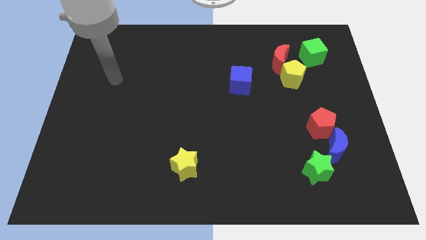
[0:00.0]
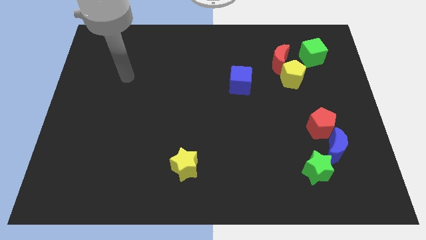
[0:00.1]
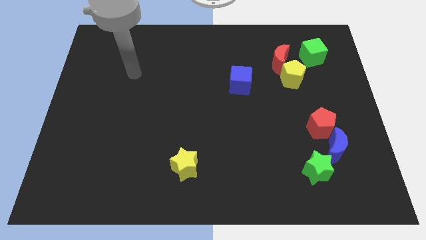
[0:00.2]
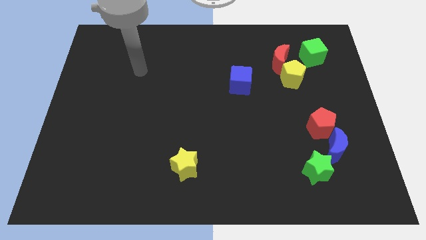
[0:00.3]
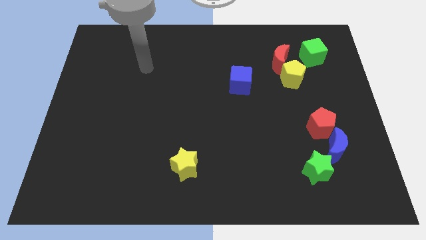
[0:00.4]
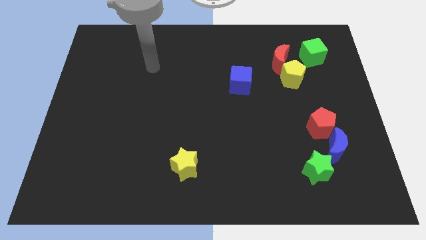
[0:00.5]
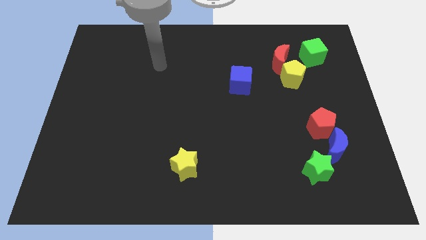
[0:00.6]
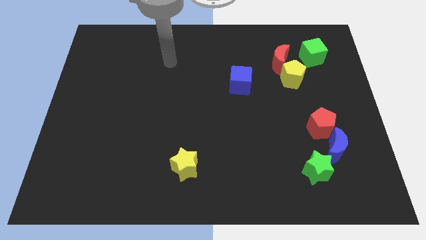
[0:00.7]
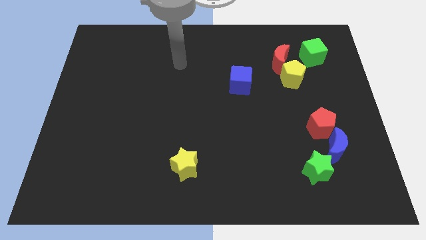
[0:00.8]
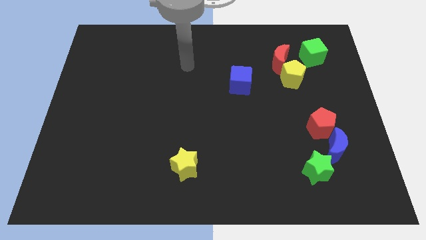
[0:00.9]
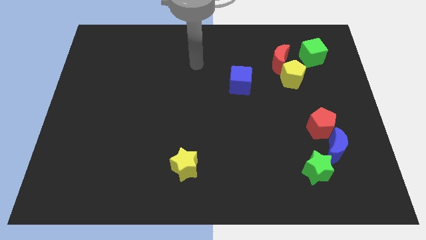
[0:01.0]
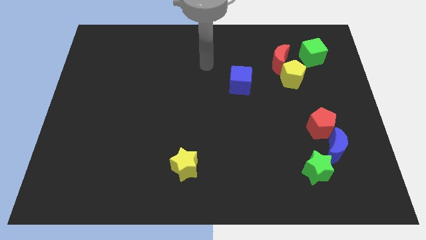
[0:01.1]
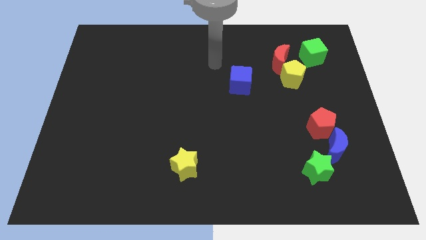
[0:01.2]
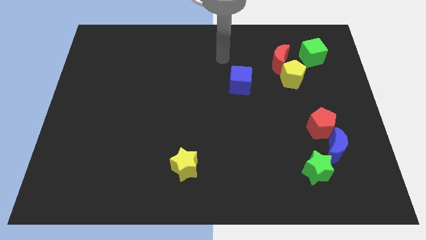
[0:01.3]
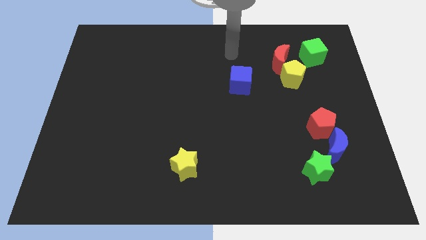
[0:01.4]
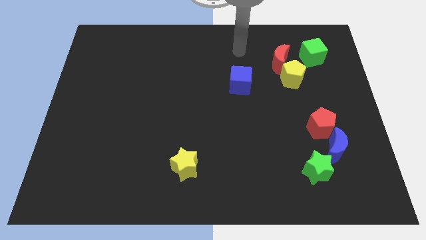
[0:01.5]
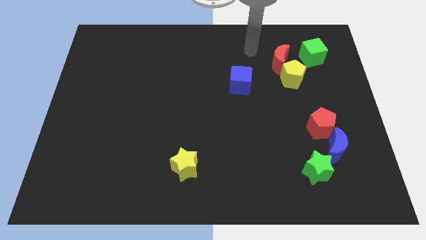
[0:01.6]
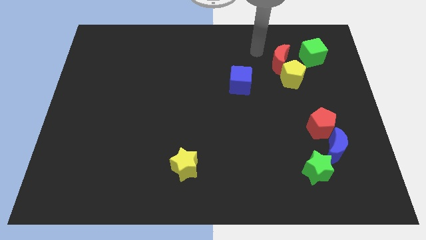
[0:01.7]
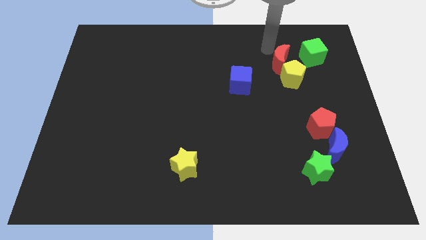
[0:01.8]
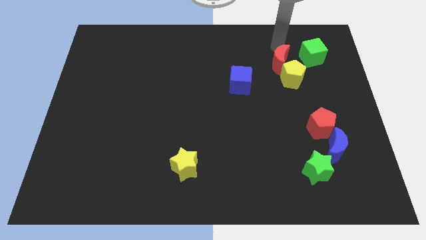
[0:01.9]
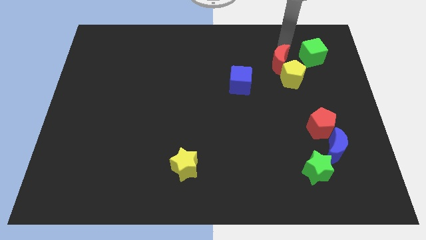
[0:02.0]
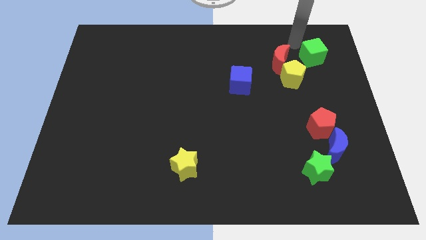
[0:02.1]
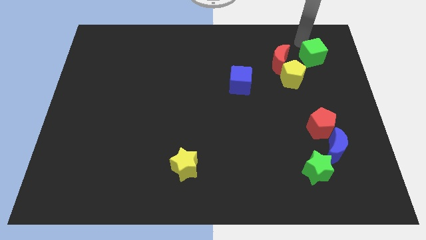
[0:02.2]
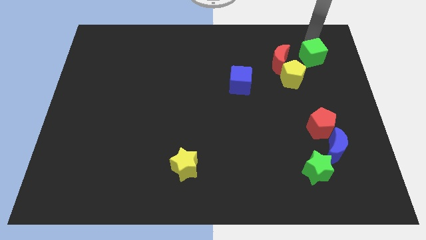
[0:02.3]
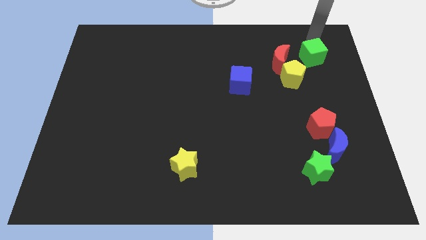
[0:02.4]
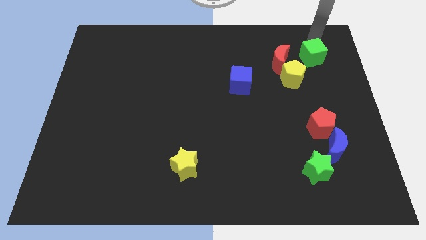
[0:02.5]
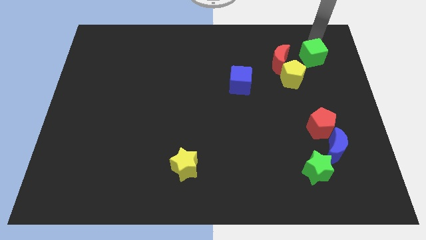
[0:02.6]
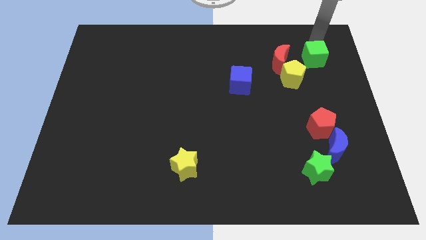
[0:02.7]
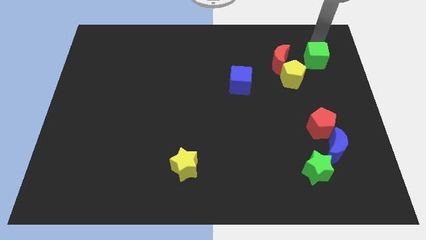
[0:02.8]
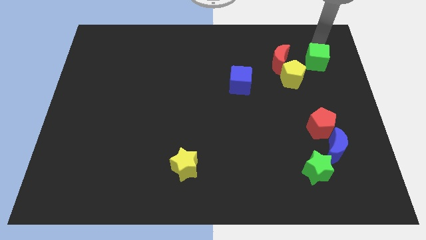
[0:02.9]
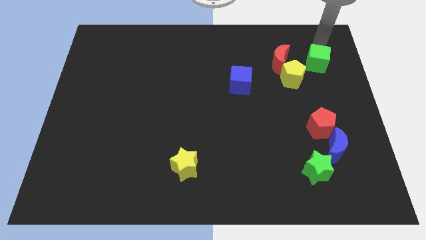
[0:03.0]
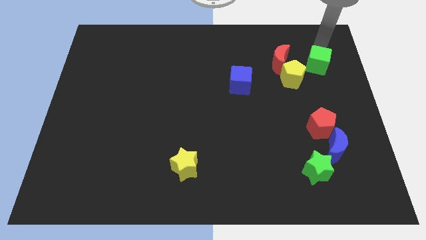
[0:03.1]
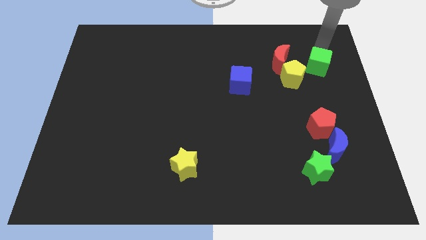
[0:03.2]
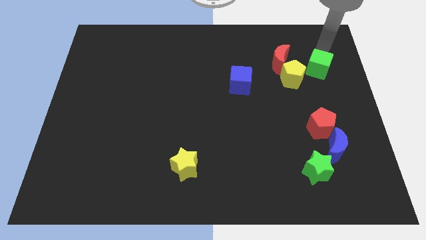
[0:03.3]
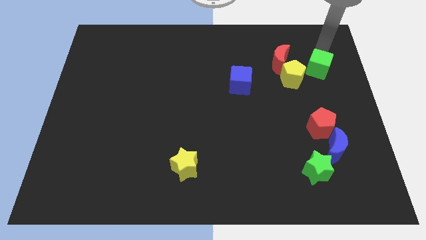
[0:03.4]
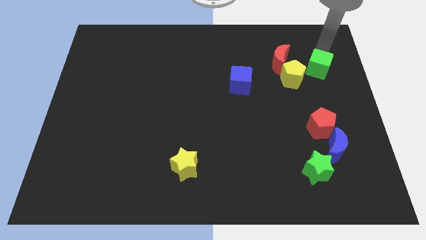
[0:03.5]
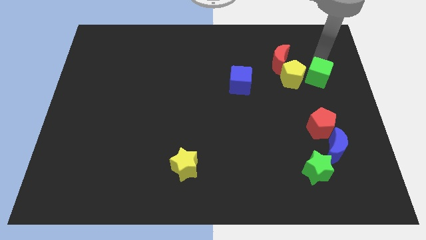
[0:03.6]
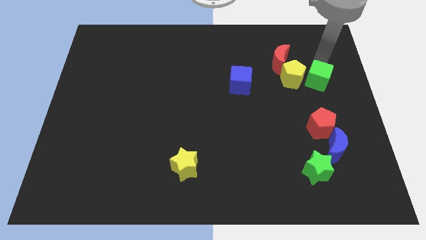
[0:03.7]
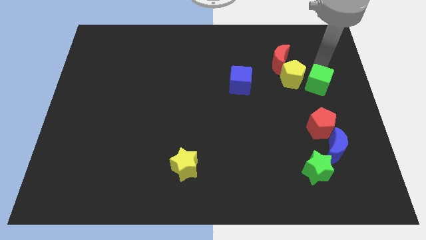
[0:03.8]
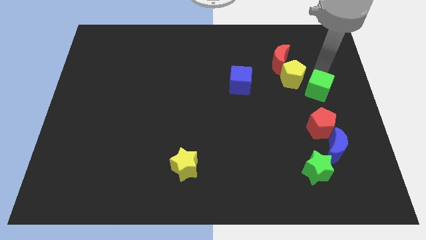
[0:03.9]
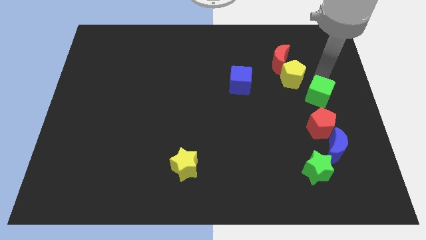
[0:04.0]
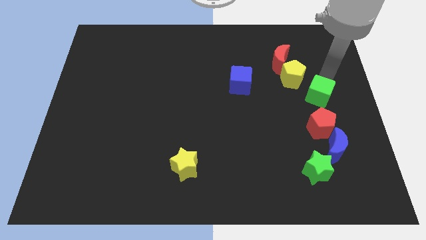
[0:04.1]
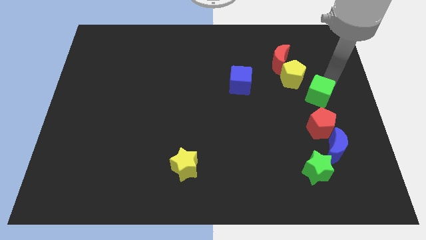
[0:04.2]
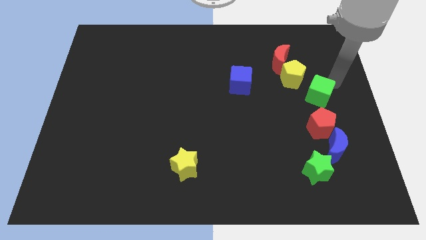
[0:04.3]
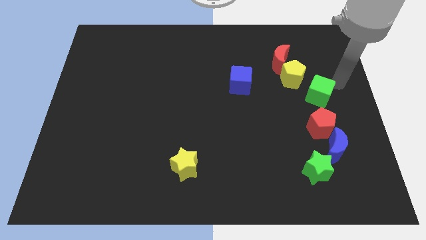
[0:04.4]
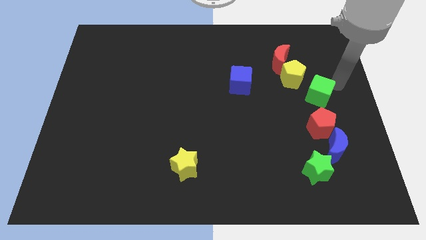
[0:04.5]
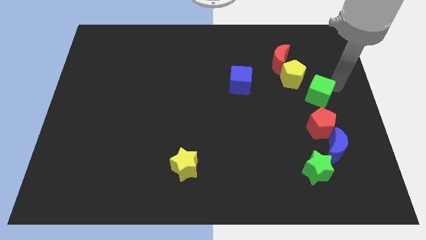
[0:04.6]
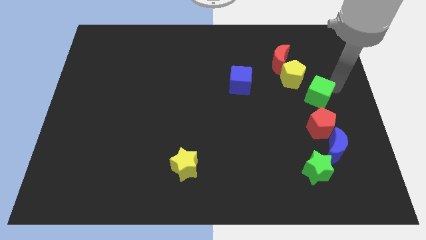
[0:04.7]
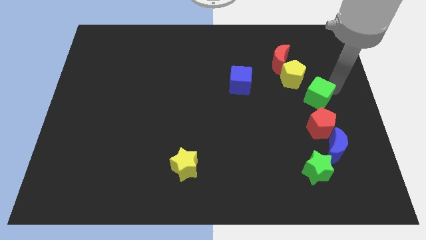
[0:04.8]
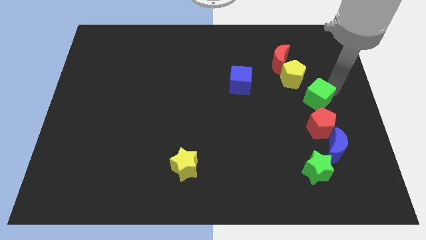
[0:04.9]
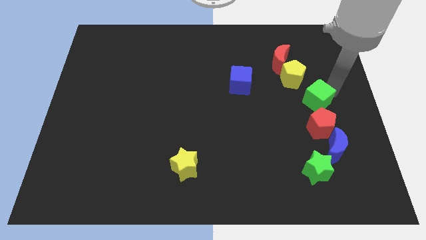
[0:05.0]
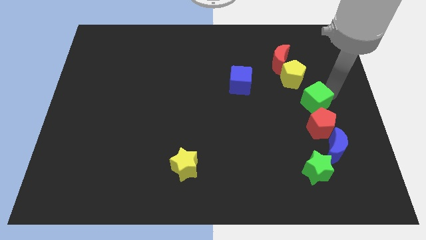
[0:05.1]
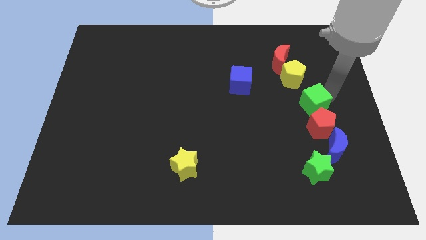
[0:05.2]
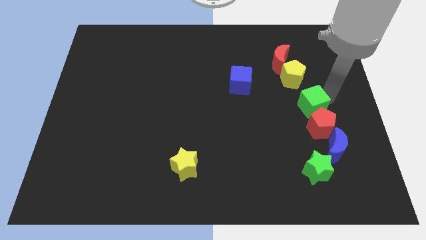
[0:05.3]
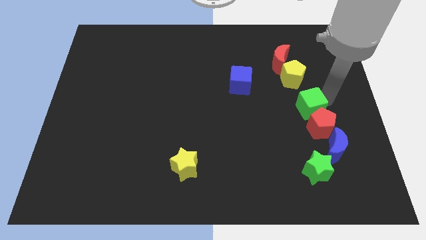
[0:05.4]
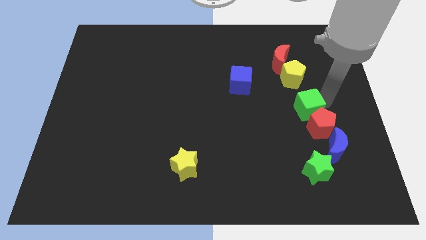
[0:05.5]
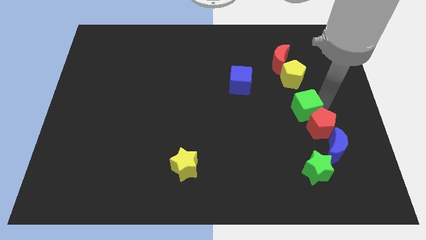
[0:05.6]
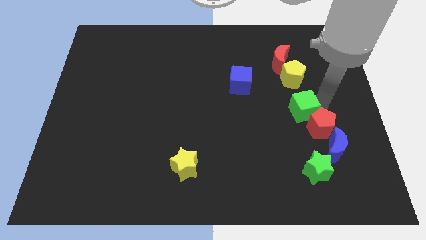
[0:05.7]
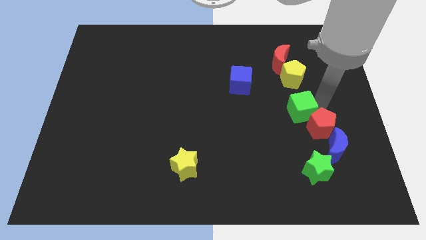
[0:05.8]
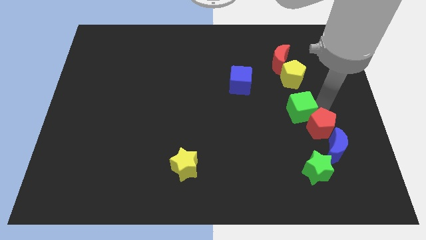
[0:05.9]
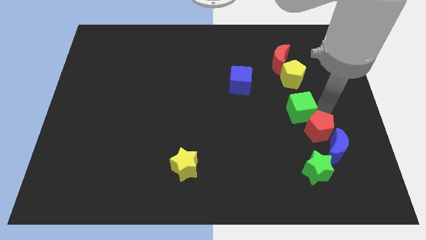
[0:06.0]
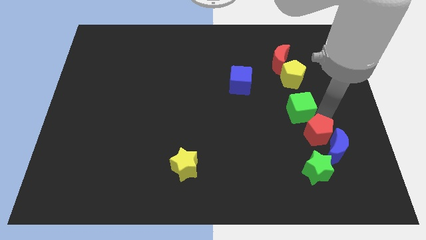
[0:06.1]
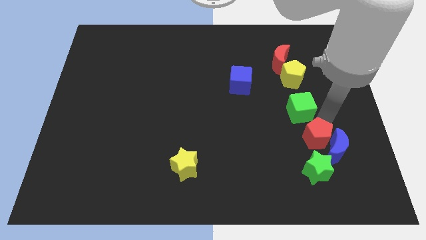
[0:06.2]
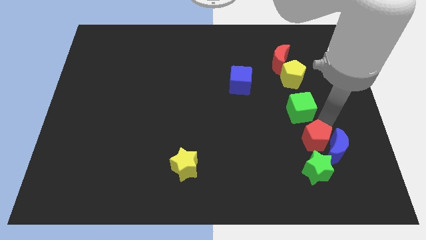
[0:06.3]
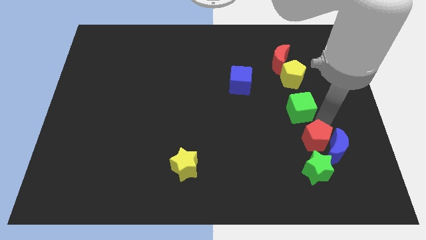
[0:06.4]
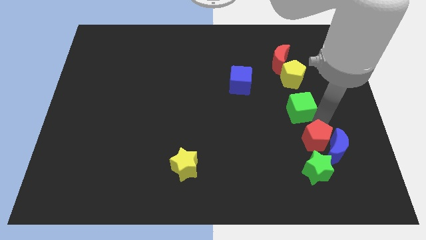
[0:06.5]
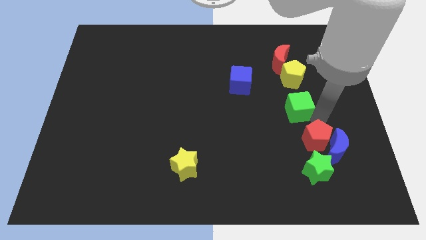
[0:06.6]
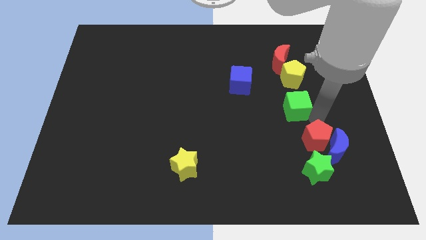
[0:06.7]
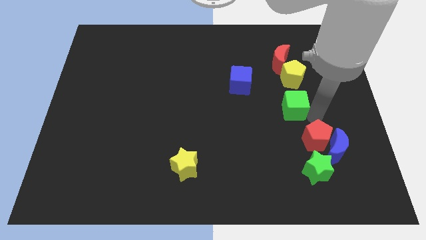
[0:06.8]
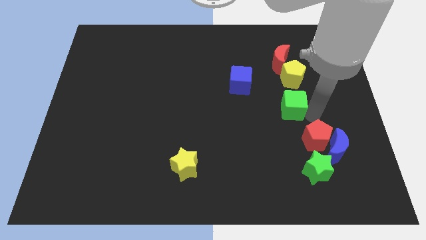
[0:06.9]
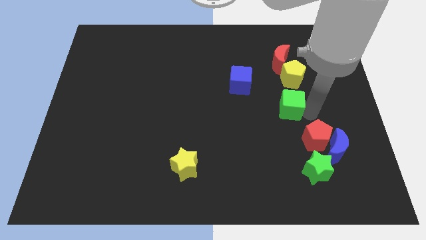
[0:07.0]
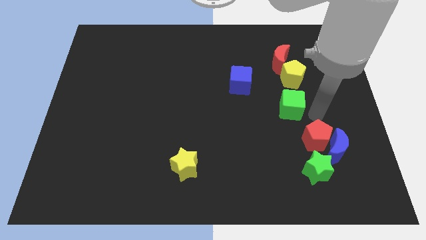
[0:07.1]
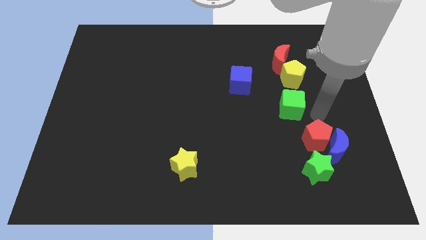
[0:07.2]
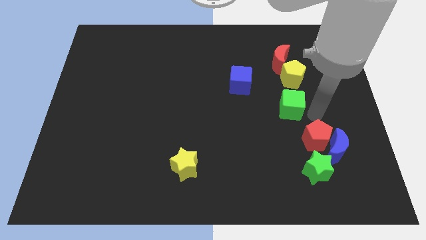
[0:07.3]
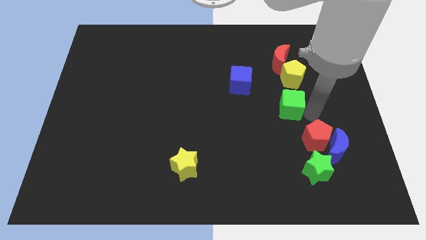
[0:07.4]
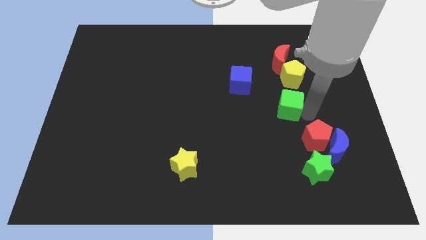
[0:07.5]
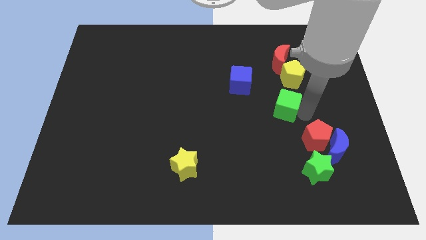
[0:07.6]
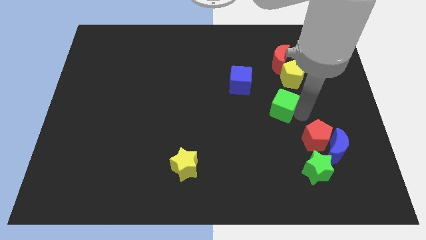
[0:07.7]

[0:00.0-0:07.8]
move the green cube to the bottom right of the blue cube
